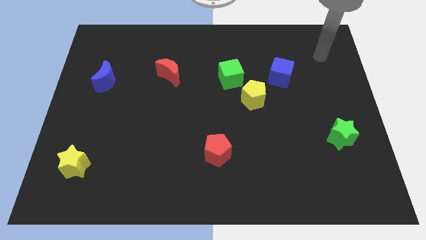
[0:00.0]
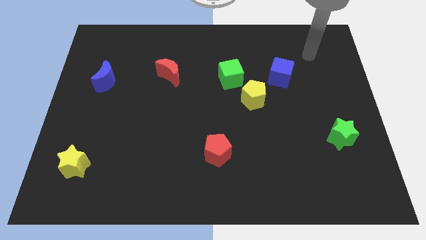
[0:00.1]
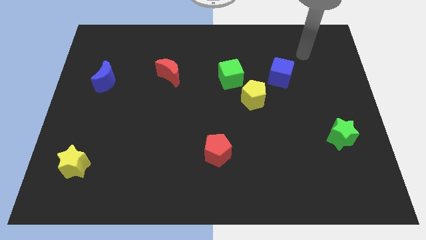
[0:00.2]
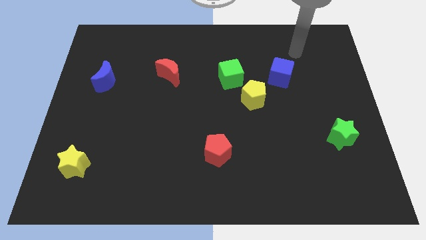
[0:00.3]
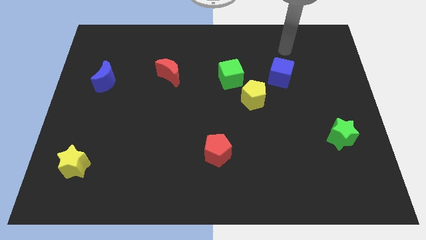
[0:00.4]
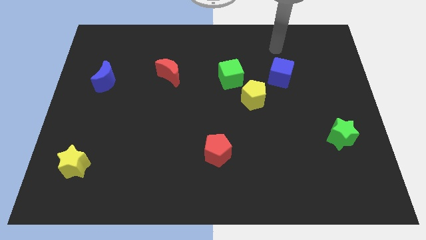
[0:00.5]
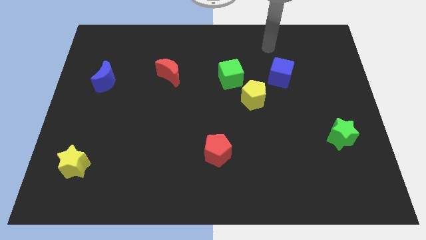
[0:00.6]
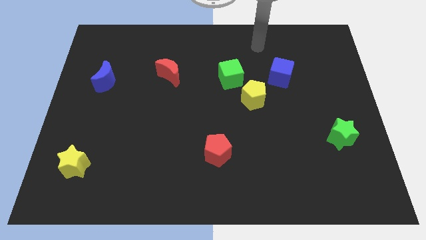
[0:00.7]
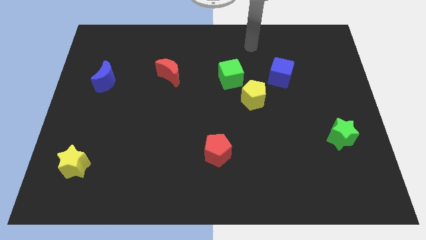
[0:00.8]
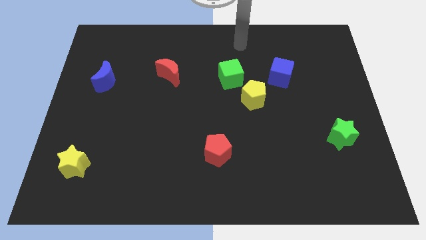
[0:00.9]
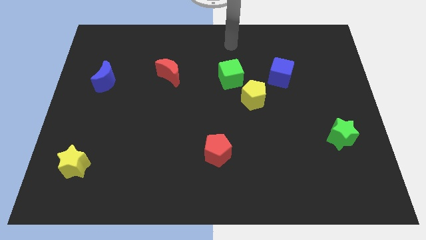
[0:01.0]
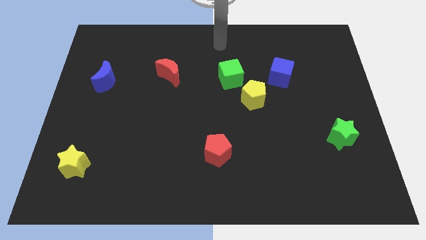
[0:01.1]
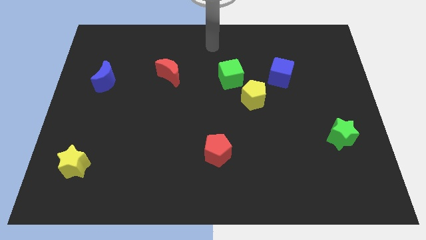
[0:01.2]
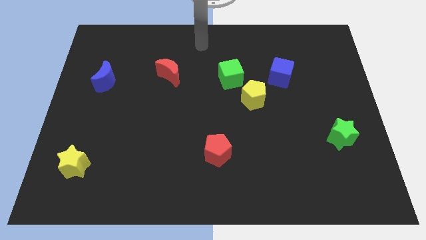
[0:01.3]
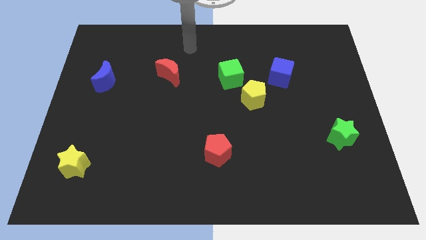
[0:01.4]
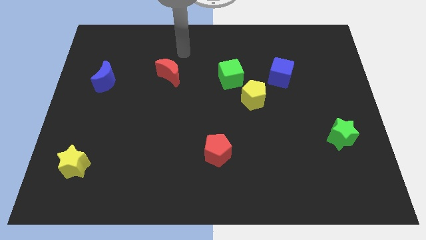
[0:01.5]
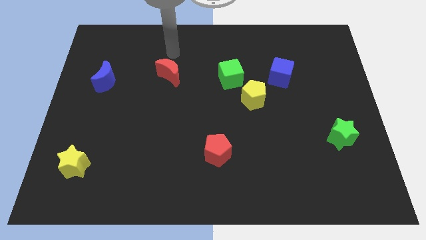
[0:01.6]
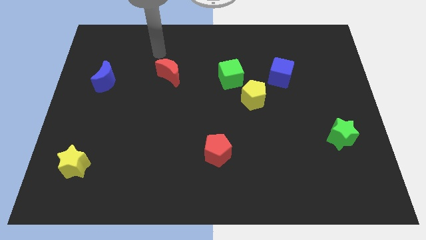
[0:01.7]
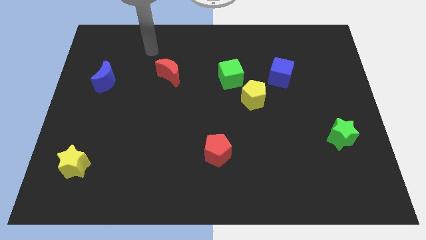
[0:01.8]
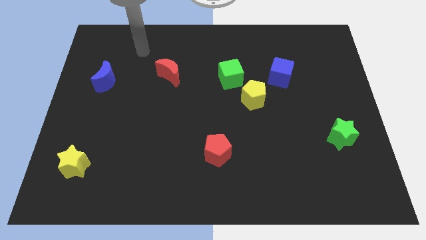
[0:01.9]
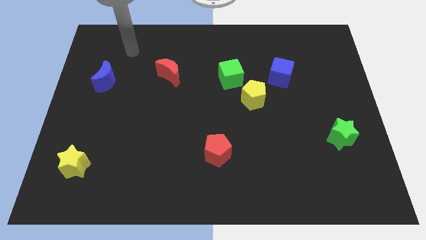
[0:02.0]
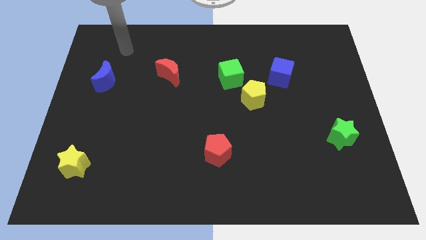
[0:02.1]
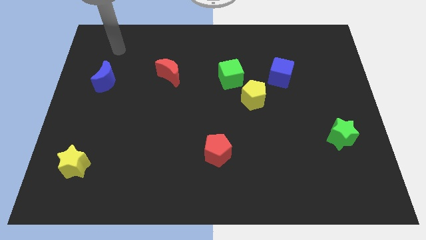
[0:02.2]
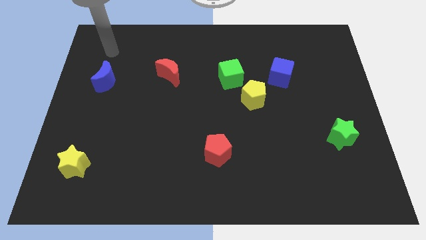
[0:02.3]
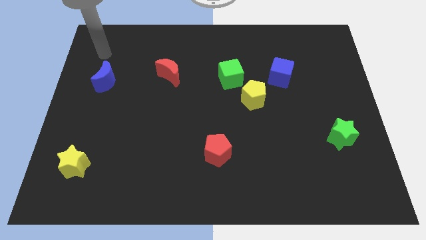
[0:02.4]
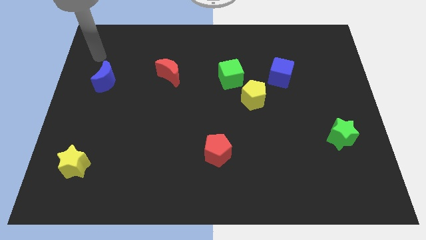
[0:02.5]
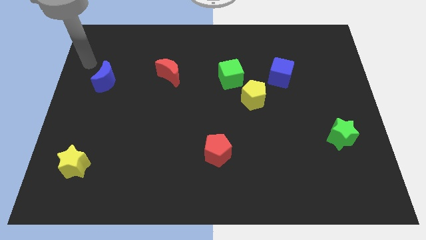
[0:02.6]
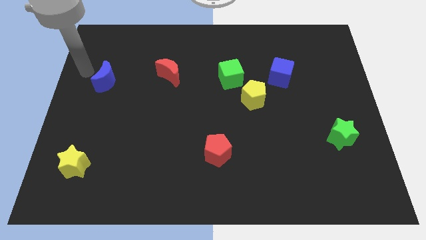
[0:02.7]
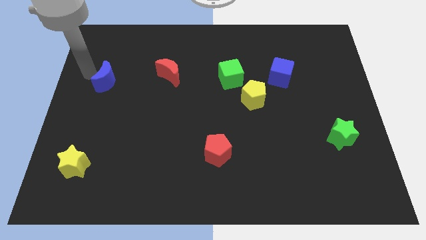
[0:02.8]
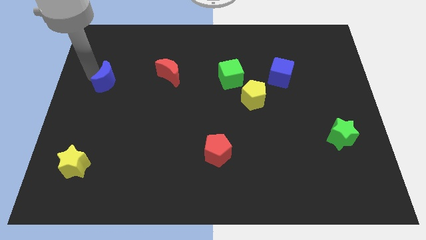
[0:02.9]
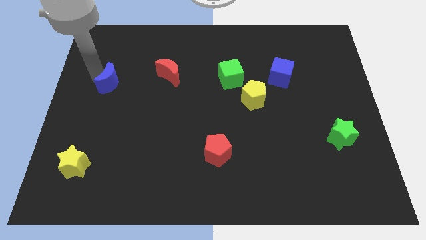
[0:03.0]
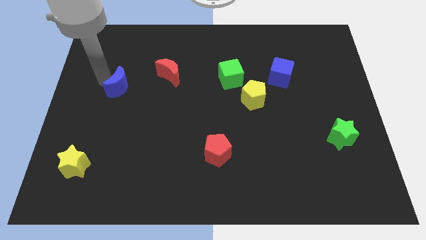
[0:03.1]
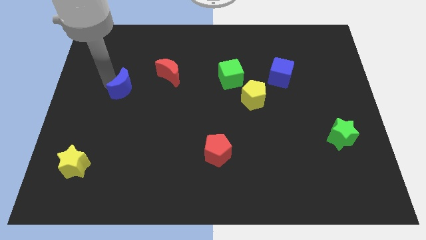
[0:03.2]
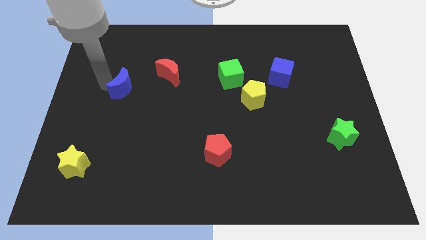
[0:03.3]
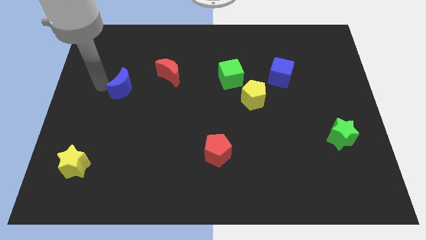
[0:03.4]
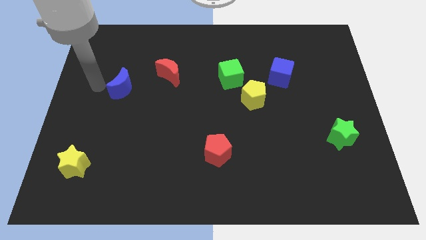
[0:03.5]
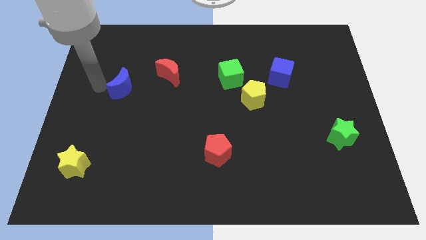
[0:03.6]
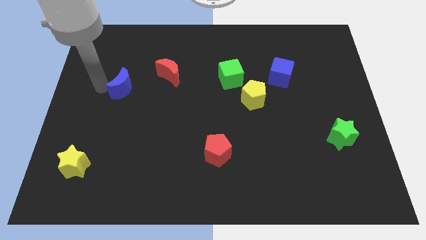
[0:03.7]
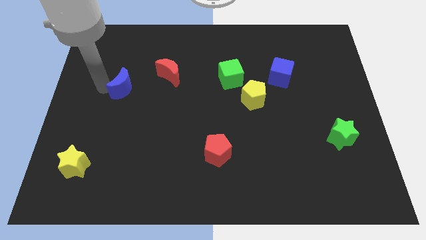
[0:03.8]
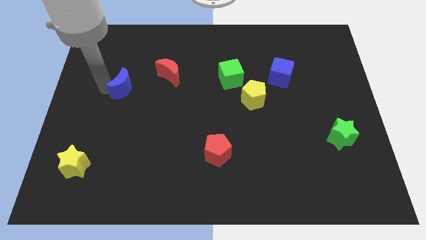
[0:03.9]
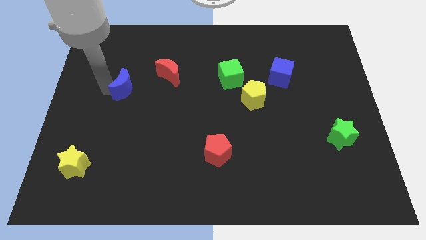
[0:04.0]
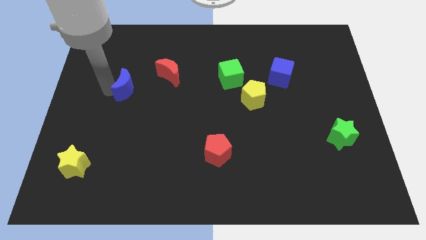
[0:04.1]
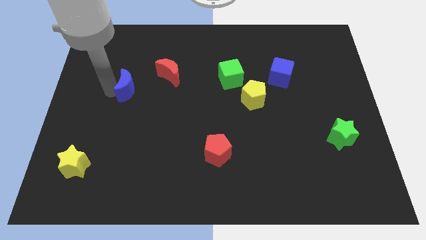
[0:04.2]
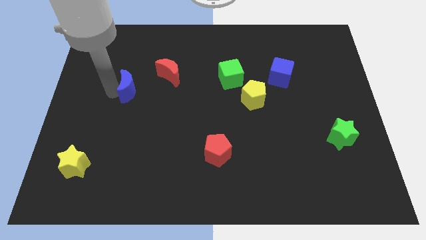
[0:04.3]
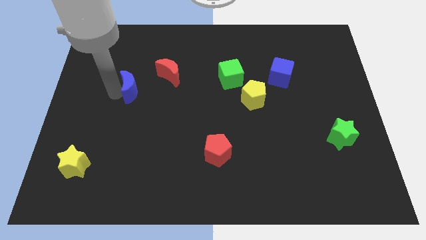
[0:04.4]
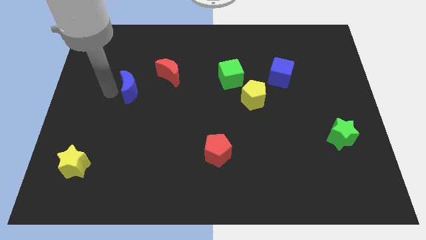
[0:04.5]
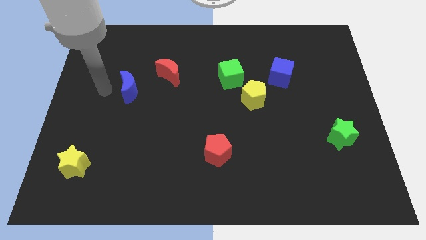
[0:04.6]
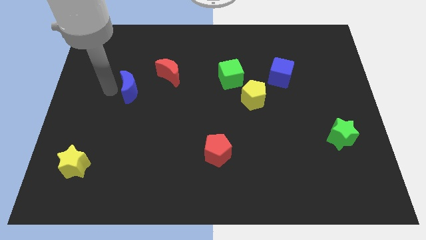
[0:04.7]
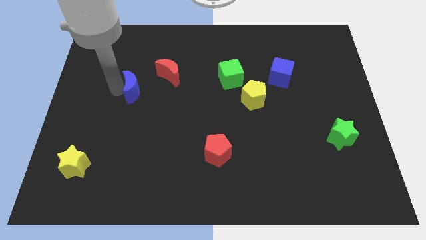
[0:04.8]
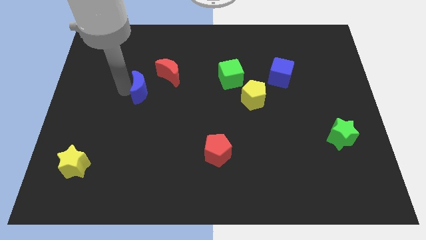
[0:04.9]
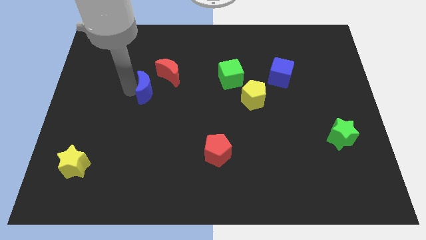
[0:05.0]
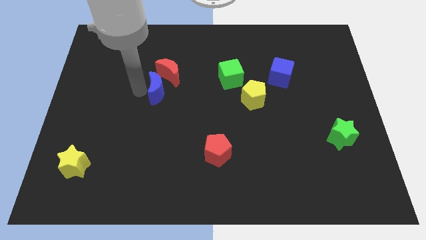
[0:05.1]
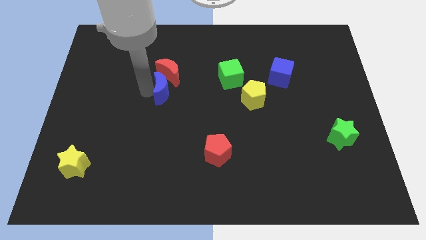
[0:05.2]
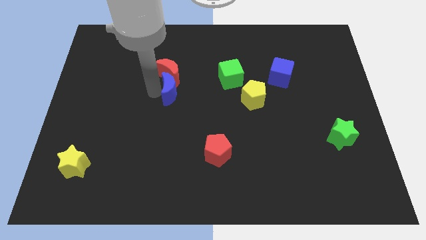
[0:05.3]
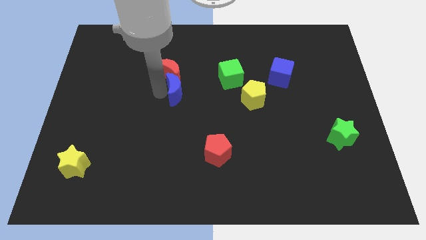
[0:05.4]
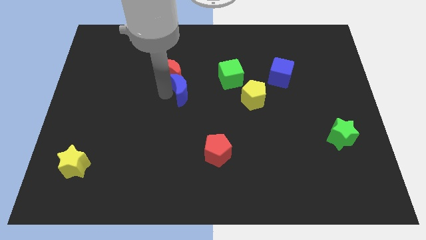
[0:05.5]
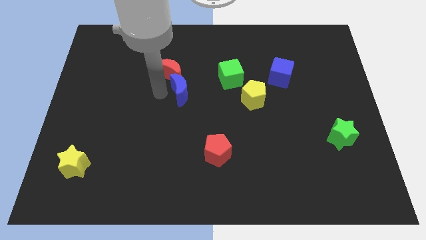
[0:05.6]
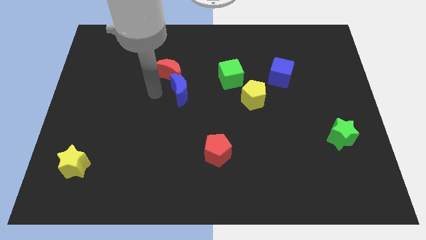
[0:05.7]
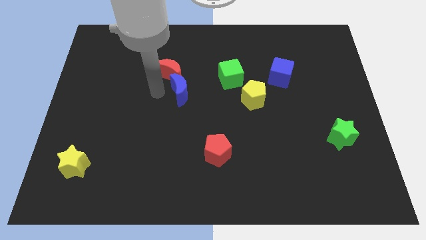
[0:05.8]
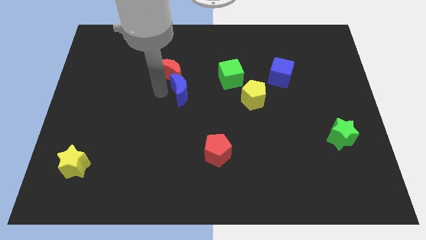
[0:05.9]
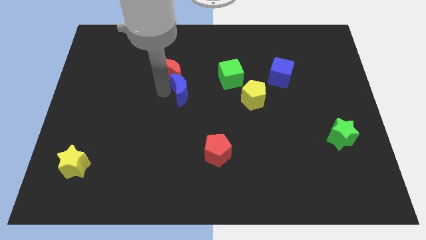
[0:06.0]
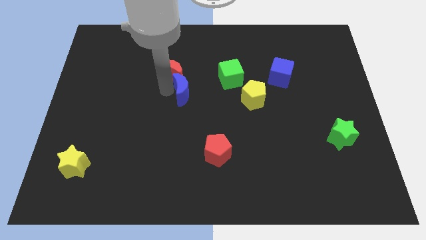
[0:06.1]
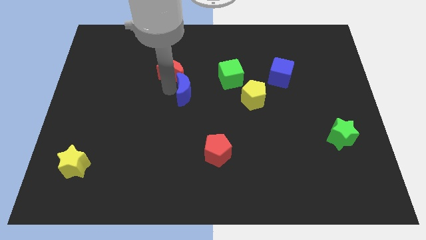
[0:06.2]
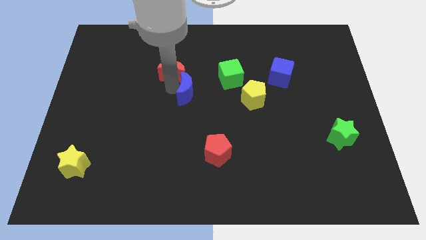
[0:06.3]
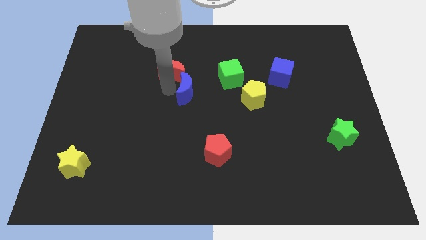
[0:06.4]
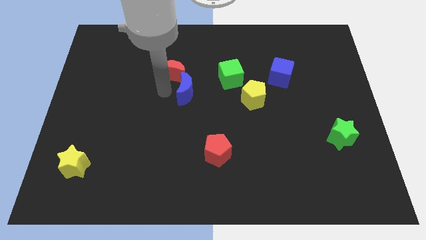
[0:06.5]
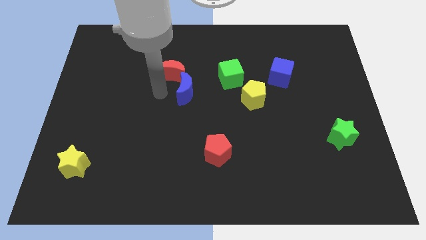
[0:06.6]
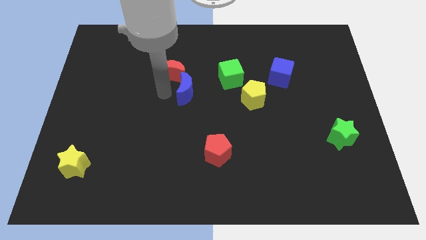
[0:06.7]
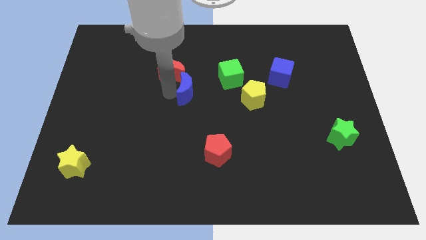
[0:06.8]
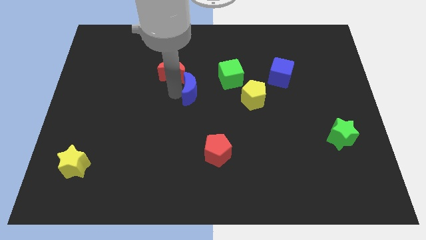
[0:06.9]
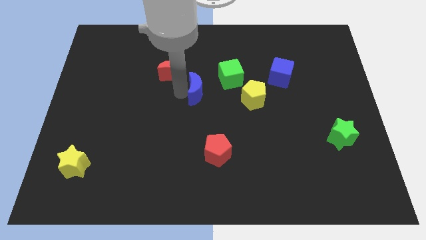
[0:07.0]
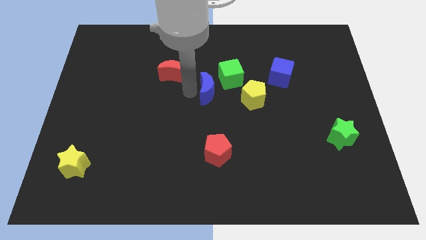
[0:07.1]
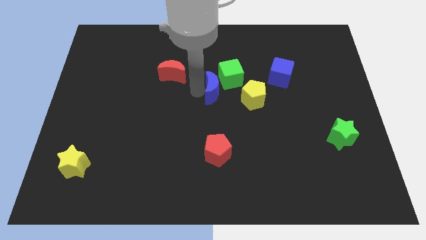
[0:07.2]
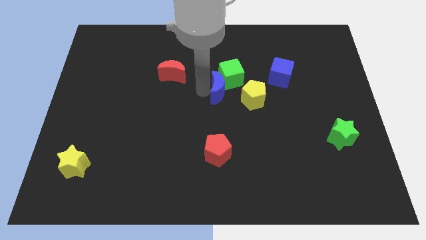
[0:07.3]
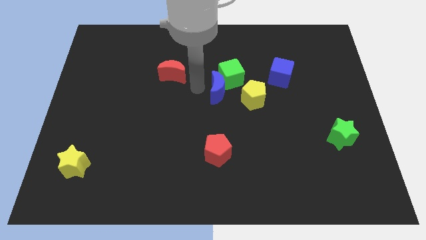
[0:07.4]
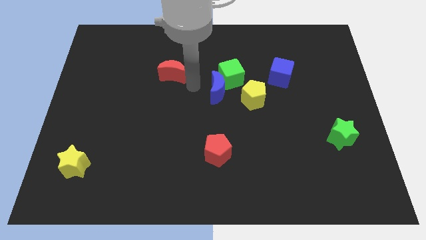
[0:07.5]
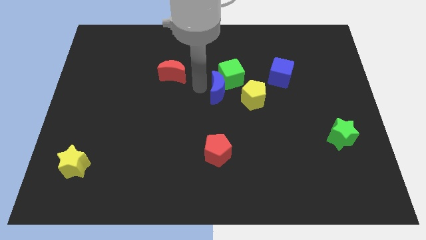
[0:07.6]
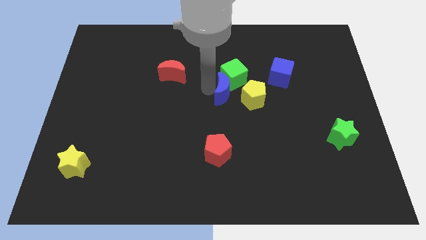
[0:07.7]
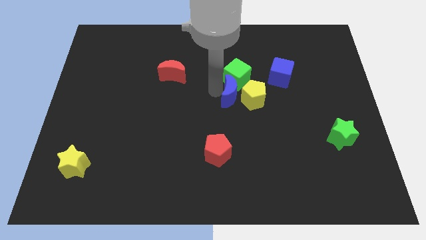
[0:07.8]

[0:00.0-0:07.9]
push the blue moon to the yellow pentagon
